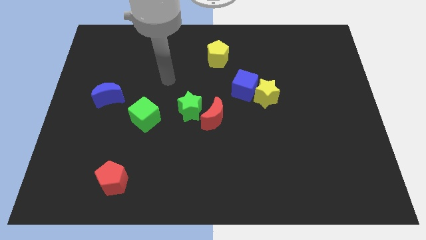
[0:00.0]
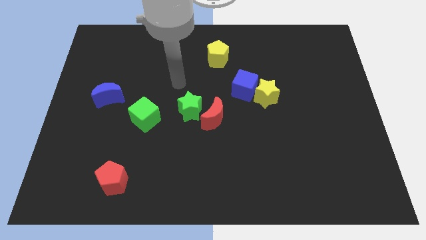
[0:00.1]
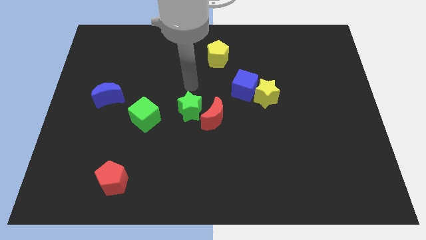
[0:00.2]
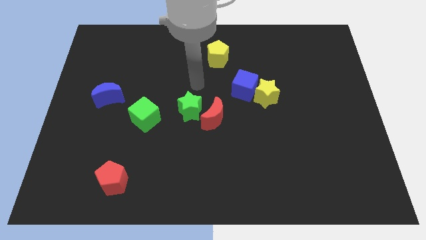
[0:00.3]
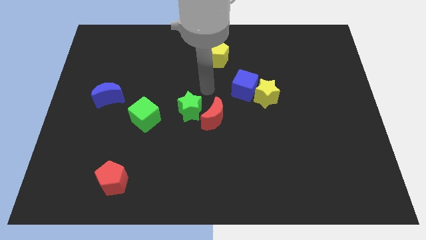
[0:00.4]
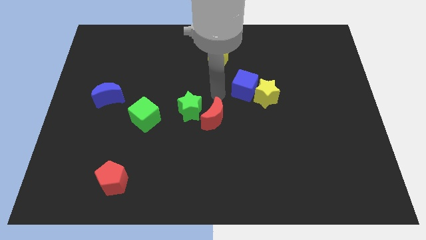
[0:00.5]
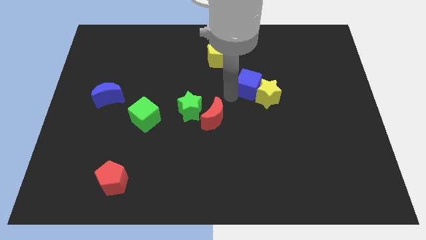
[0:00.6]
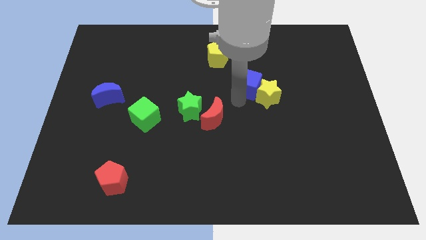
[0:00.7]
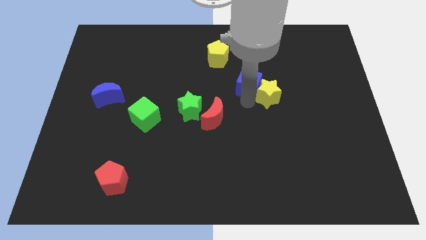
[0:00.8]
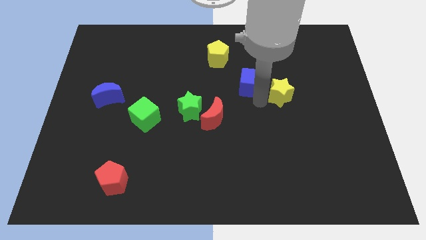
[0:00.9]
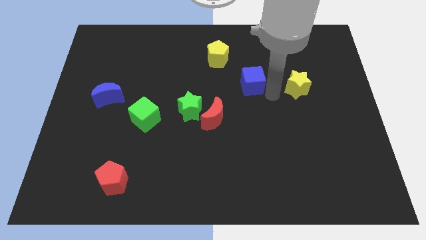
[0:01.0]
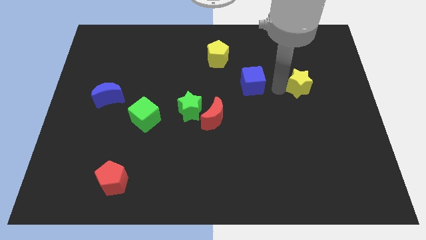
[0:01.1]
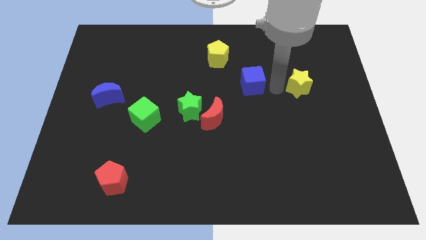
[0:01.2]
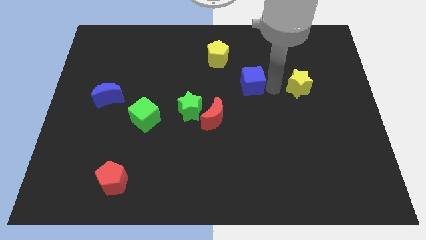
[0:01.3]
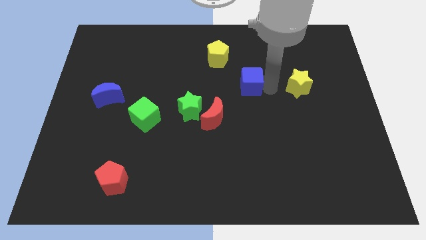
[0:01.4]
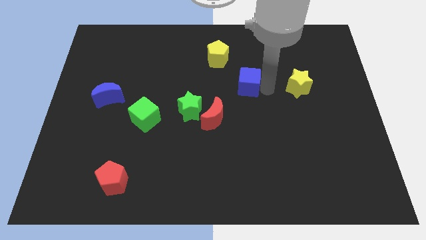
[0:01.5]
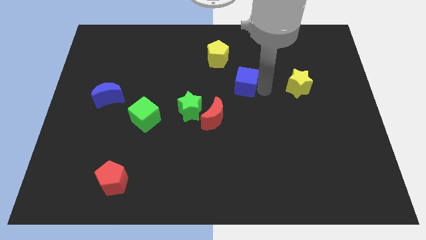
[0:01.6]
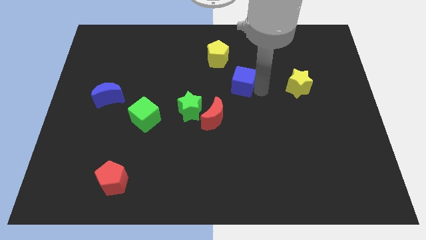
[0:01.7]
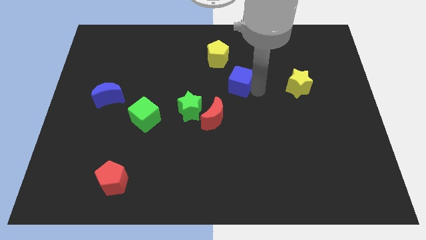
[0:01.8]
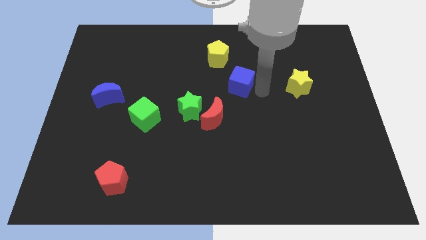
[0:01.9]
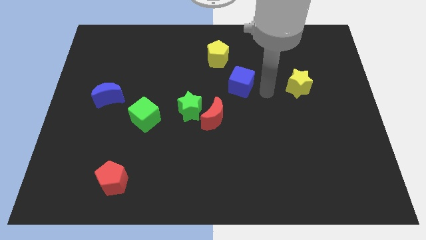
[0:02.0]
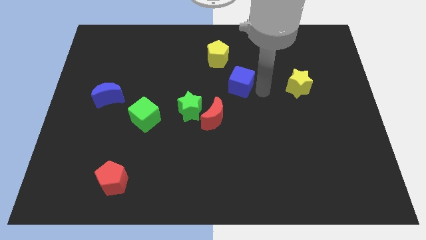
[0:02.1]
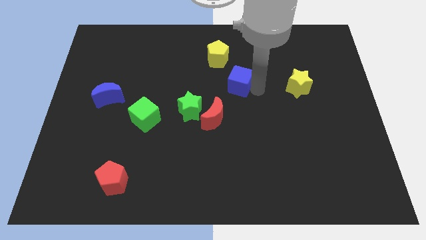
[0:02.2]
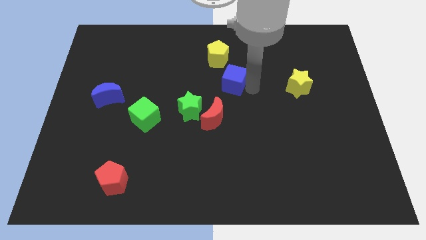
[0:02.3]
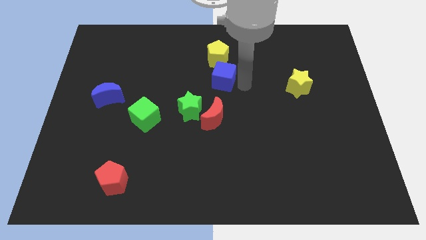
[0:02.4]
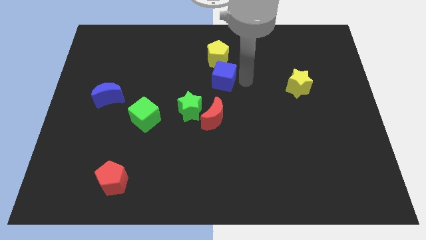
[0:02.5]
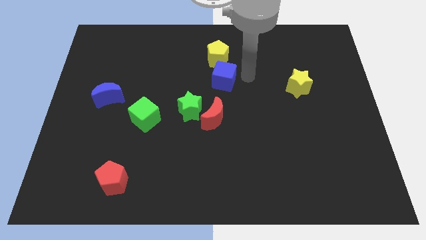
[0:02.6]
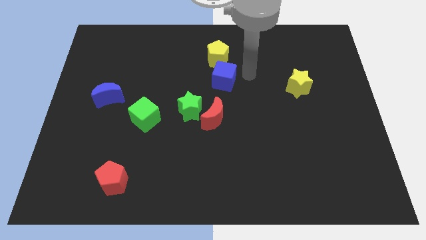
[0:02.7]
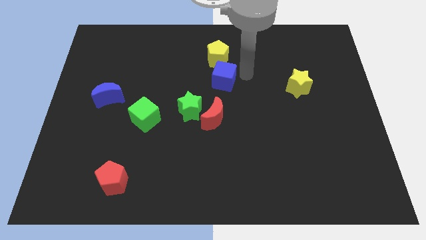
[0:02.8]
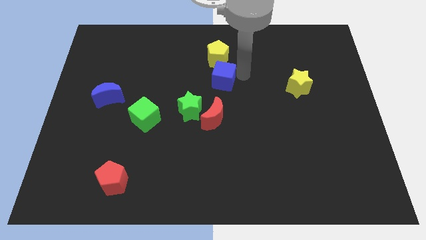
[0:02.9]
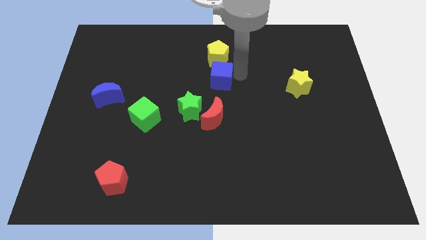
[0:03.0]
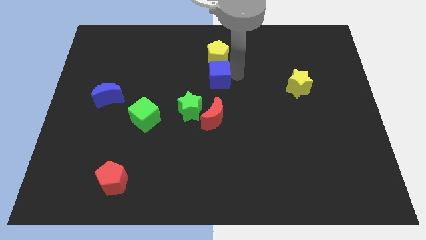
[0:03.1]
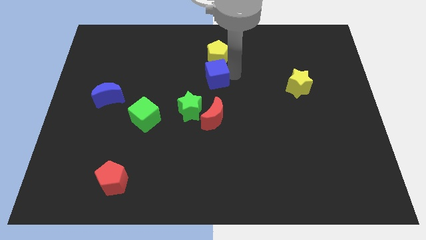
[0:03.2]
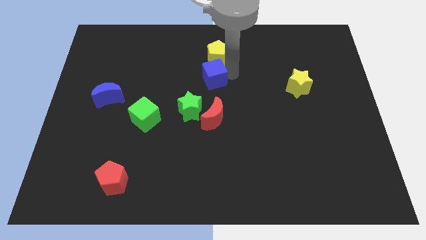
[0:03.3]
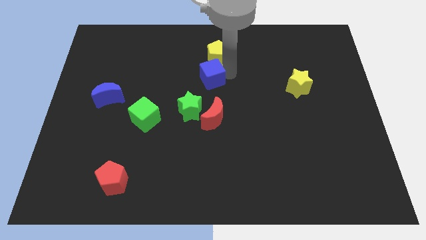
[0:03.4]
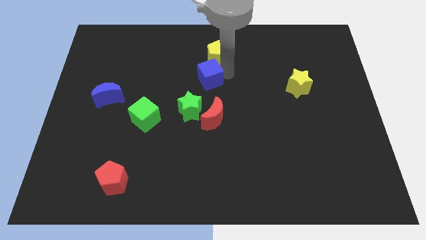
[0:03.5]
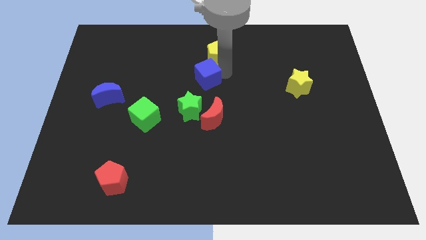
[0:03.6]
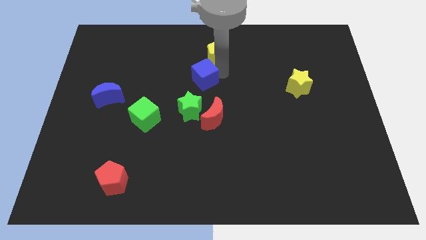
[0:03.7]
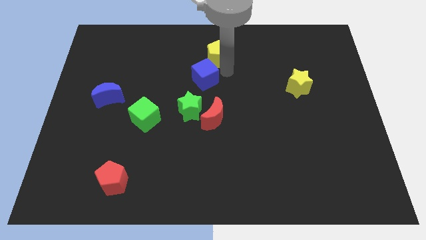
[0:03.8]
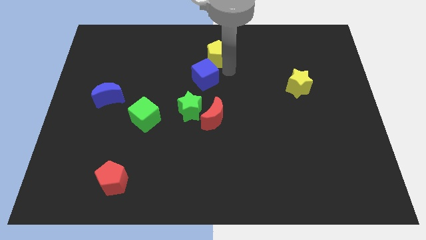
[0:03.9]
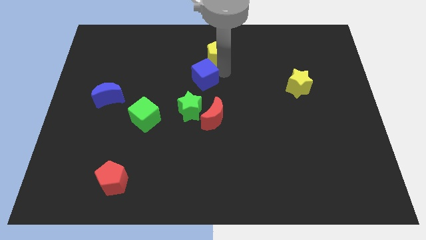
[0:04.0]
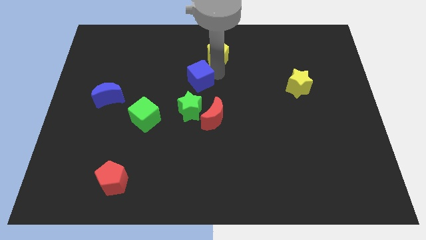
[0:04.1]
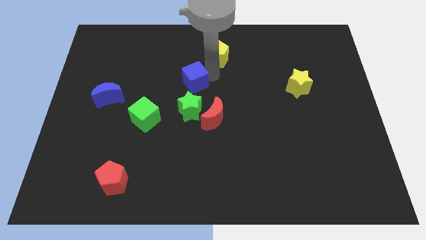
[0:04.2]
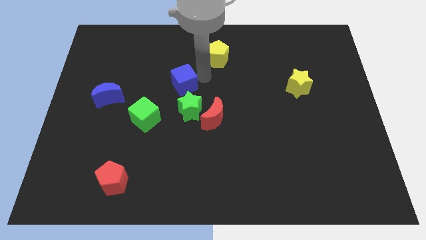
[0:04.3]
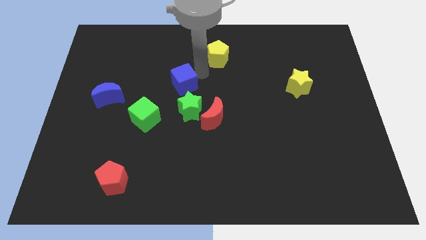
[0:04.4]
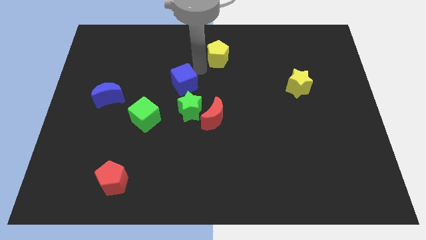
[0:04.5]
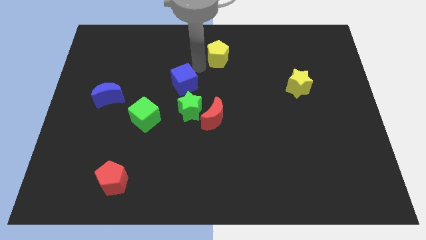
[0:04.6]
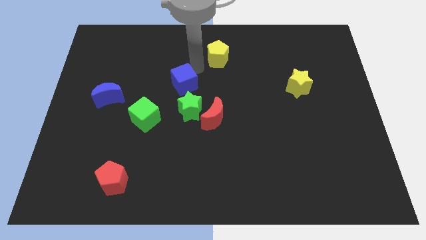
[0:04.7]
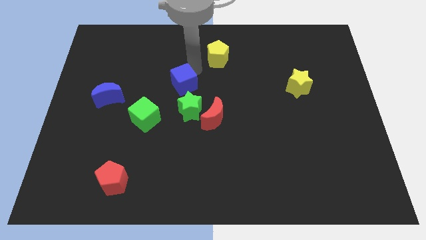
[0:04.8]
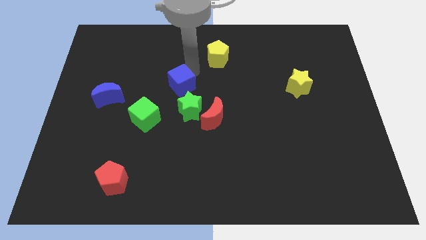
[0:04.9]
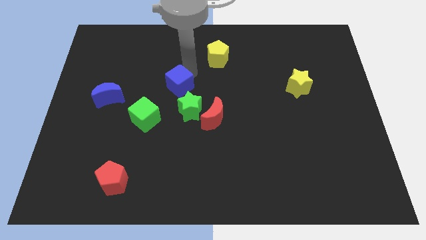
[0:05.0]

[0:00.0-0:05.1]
move the blue cube to the top right of the green cube

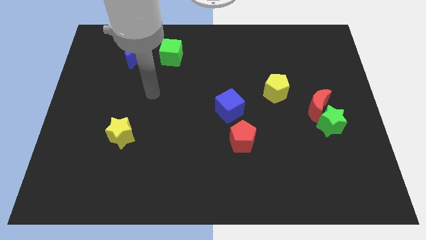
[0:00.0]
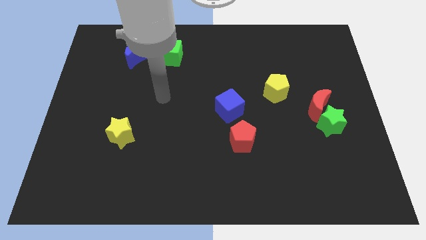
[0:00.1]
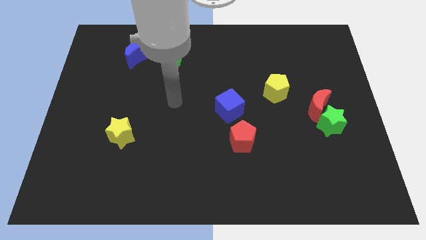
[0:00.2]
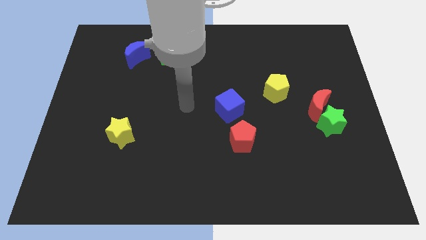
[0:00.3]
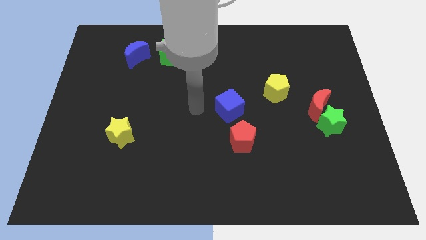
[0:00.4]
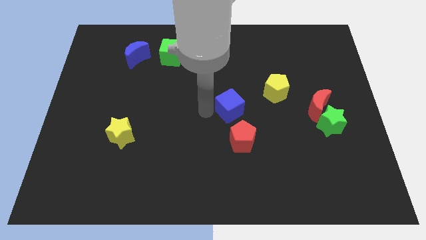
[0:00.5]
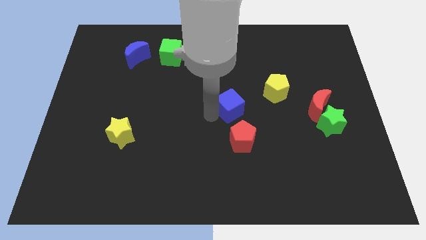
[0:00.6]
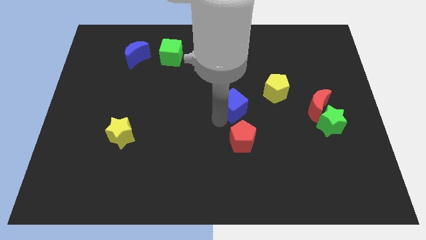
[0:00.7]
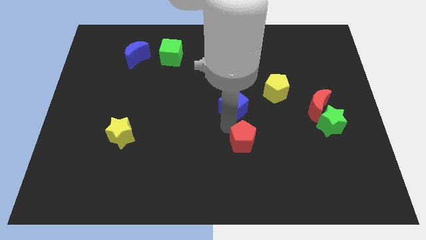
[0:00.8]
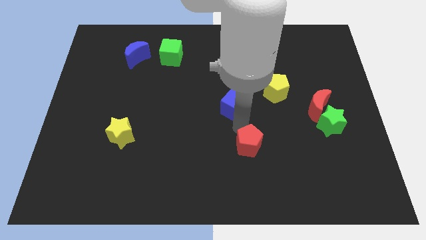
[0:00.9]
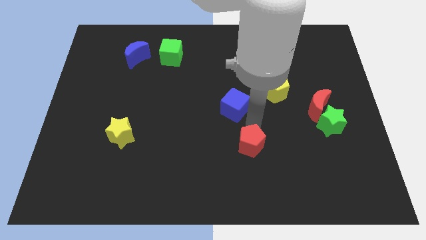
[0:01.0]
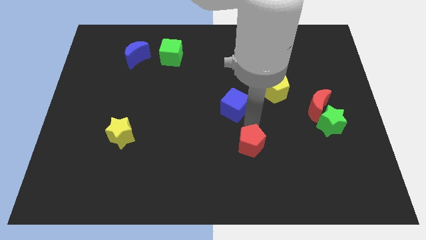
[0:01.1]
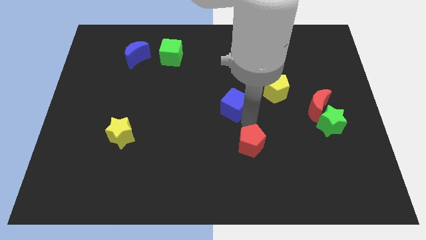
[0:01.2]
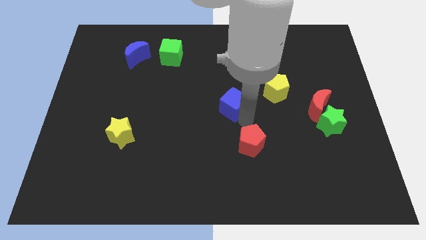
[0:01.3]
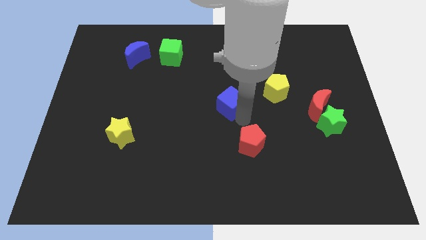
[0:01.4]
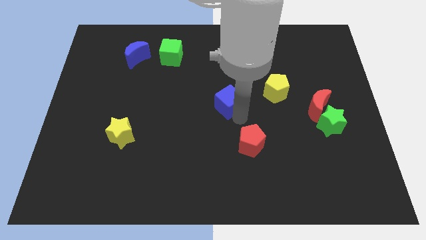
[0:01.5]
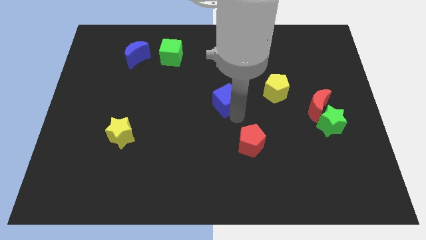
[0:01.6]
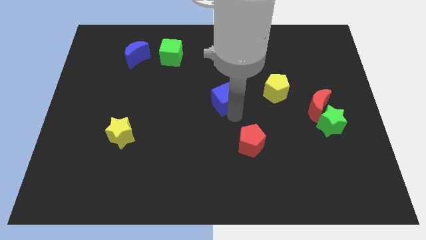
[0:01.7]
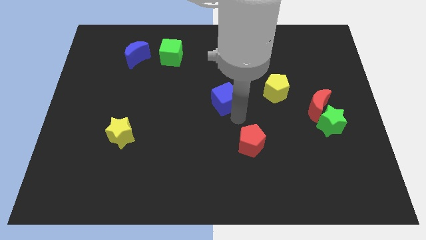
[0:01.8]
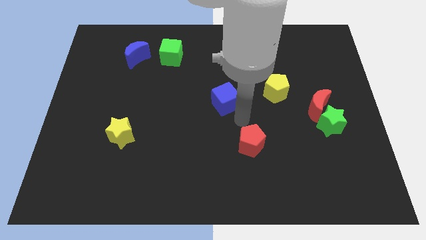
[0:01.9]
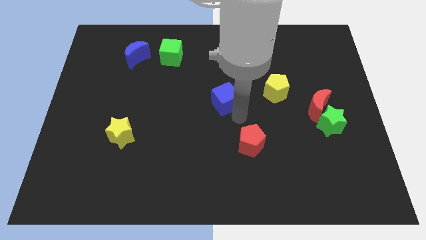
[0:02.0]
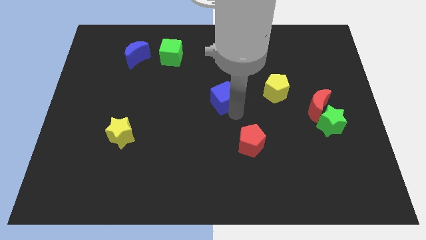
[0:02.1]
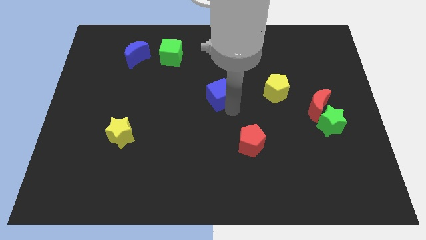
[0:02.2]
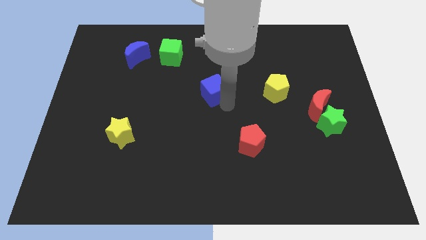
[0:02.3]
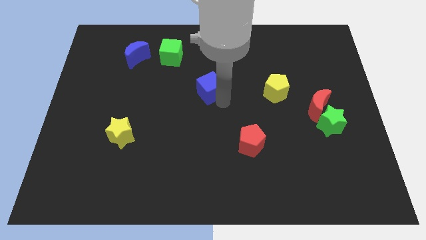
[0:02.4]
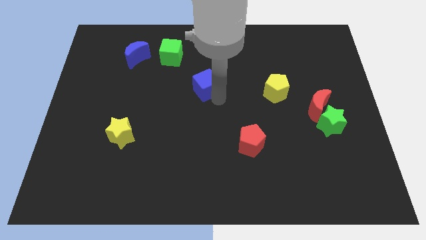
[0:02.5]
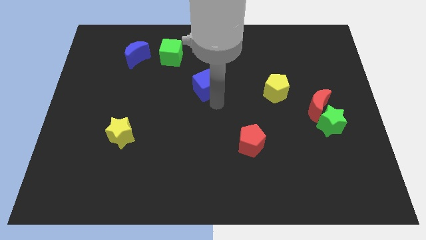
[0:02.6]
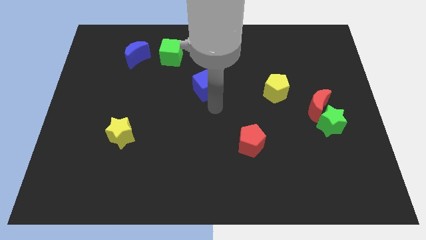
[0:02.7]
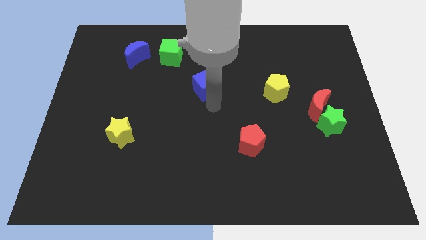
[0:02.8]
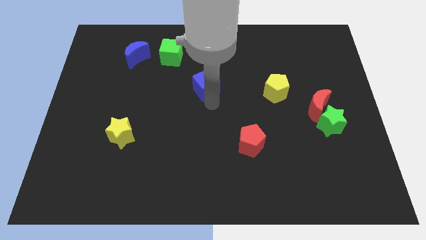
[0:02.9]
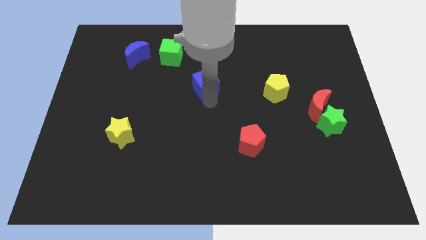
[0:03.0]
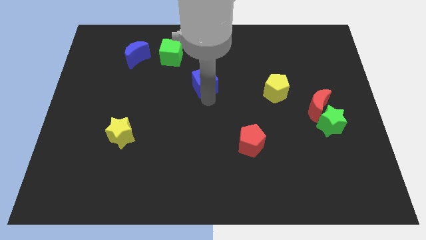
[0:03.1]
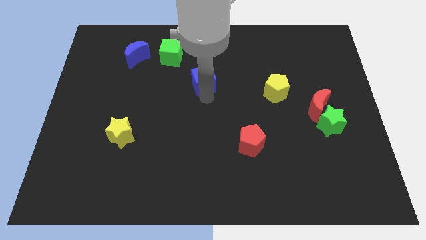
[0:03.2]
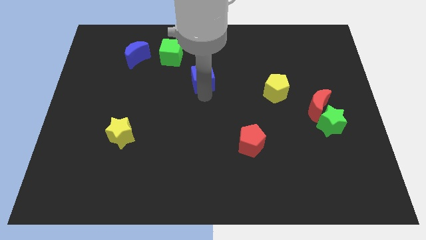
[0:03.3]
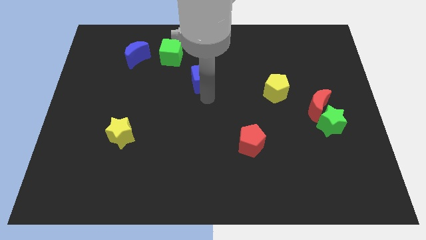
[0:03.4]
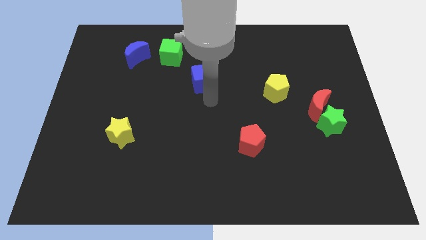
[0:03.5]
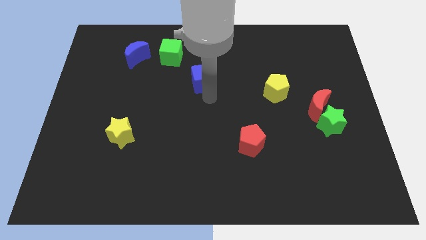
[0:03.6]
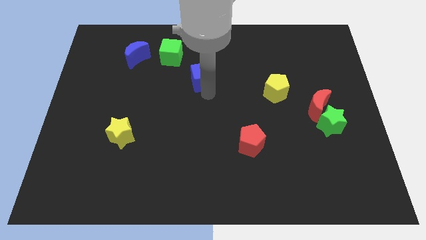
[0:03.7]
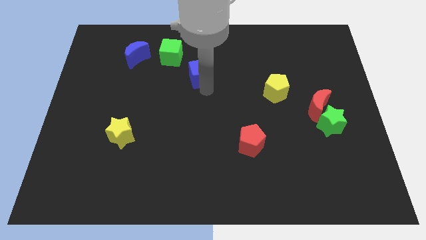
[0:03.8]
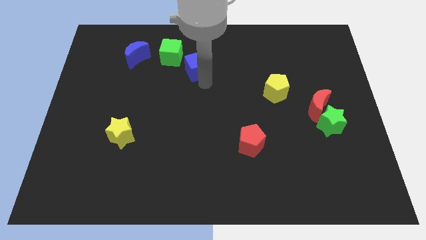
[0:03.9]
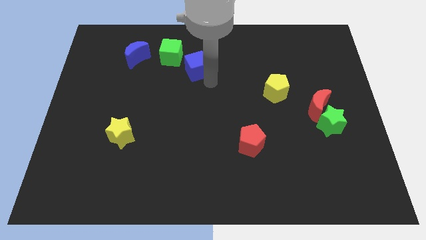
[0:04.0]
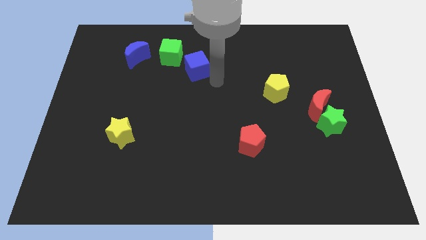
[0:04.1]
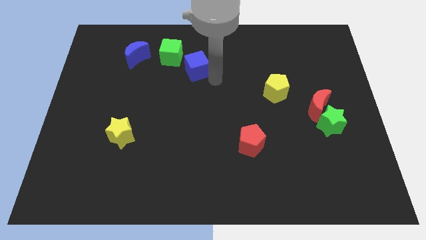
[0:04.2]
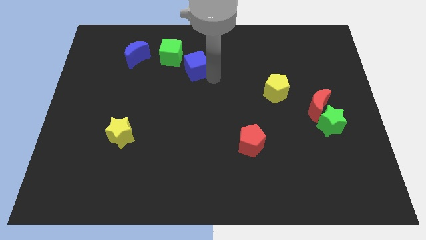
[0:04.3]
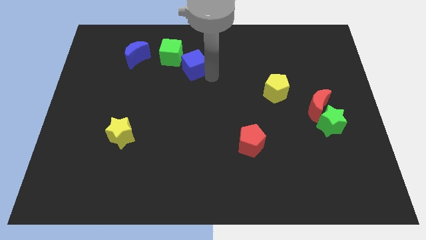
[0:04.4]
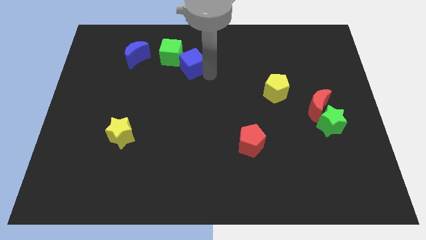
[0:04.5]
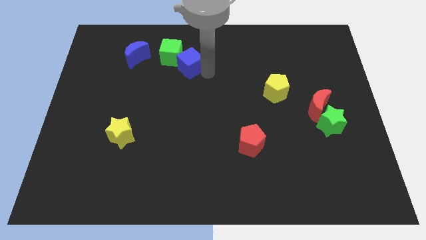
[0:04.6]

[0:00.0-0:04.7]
move the blue cube right of the blue moon
